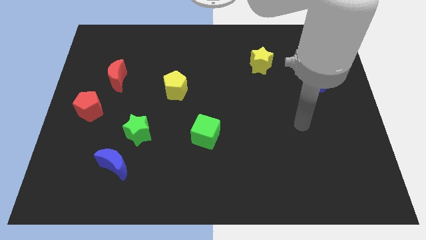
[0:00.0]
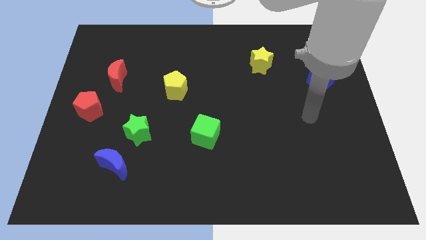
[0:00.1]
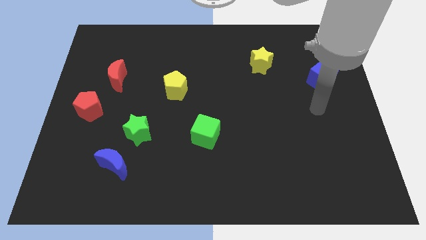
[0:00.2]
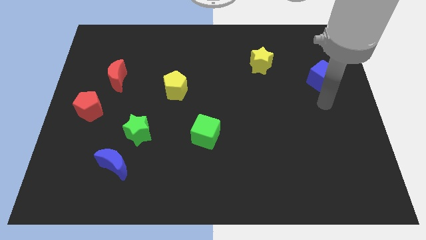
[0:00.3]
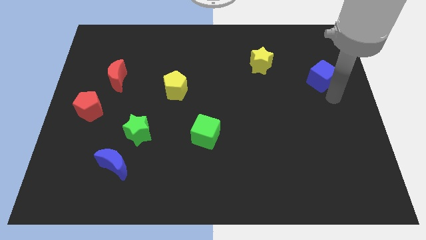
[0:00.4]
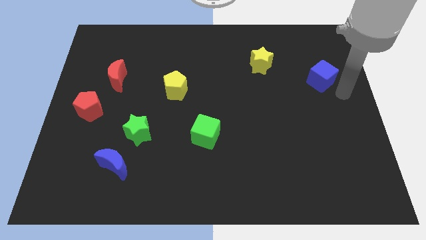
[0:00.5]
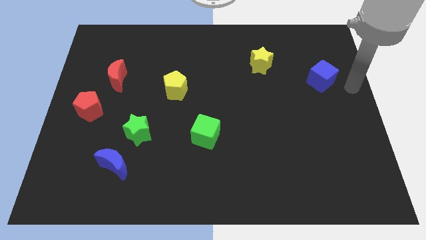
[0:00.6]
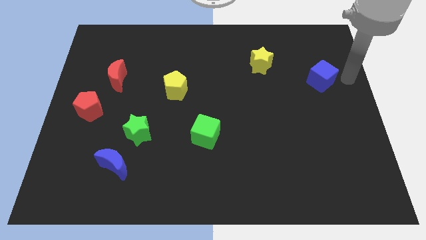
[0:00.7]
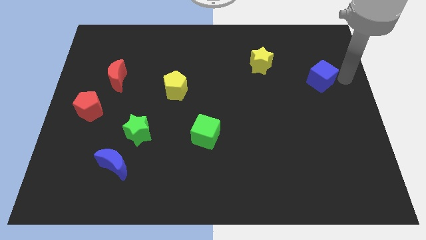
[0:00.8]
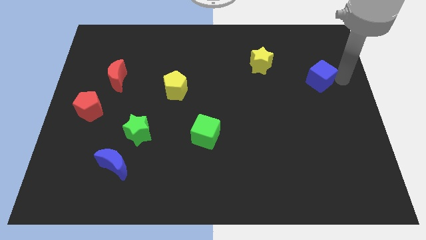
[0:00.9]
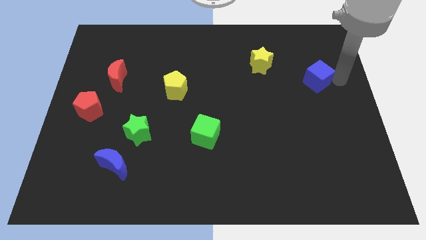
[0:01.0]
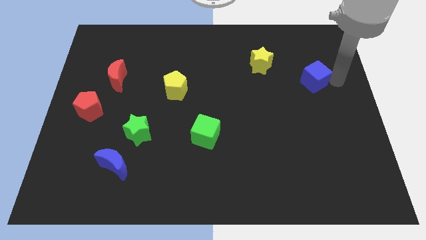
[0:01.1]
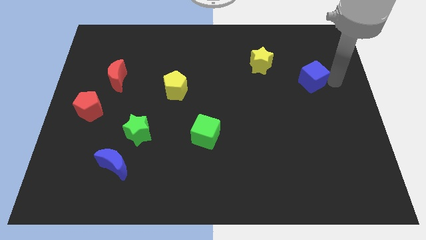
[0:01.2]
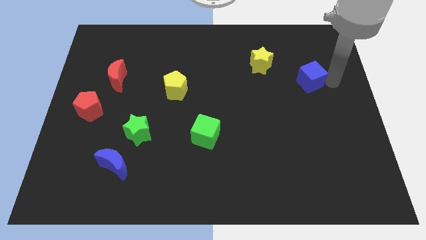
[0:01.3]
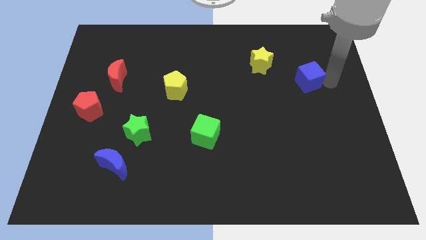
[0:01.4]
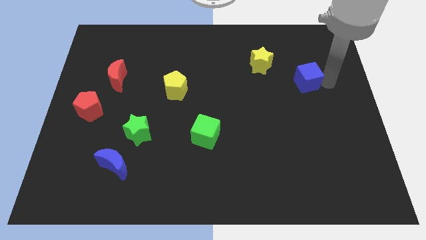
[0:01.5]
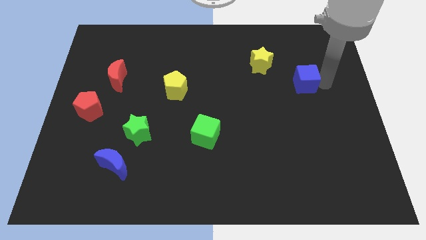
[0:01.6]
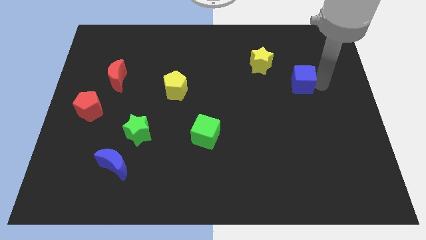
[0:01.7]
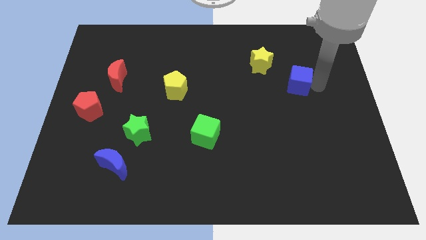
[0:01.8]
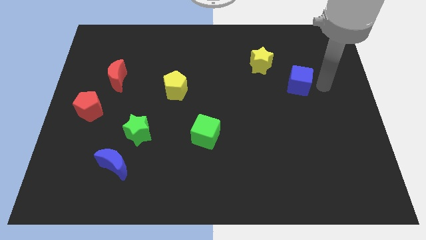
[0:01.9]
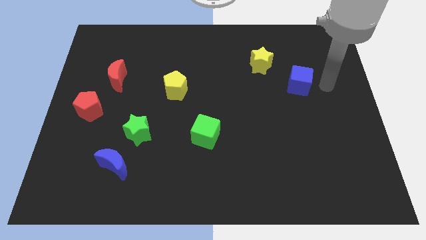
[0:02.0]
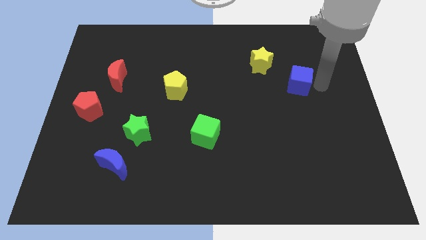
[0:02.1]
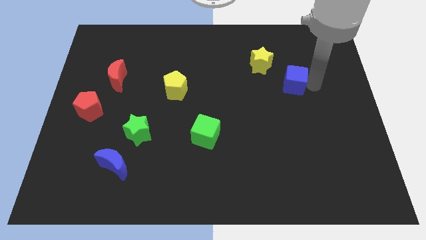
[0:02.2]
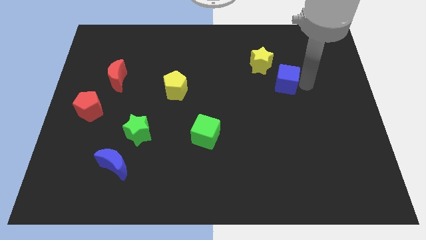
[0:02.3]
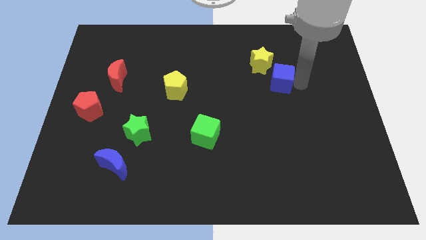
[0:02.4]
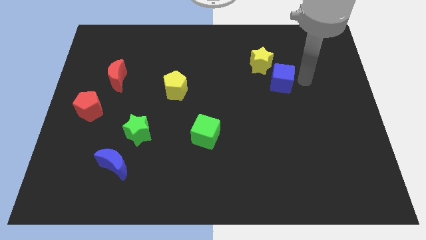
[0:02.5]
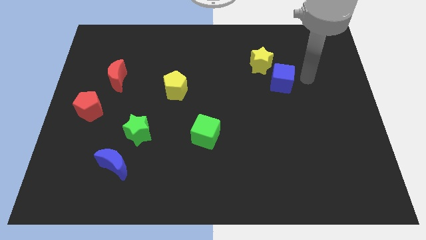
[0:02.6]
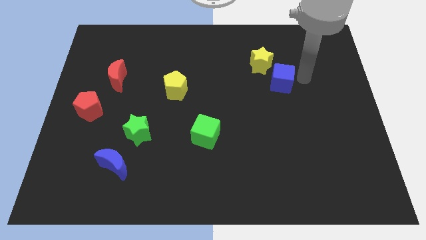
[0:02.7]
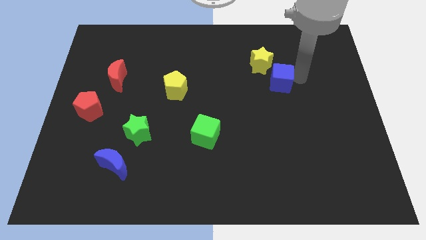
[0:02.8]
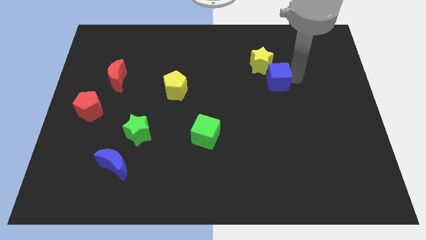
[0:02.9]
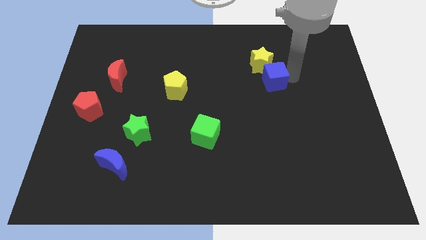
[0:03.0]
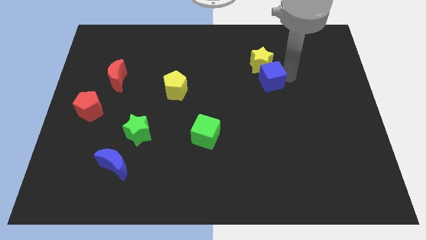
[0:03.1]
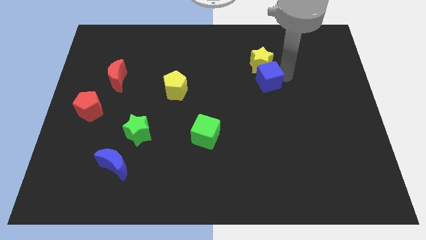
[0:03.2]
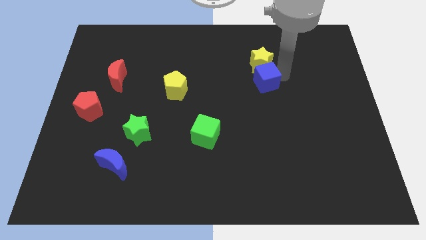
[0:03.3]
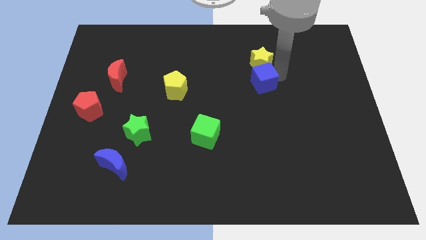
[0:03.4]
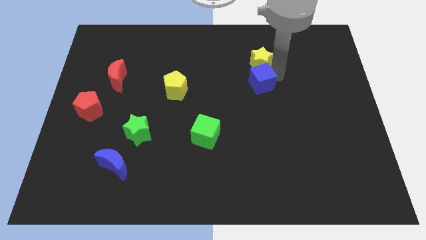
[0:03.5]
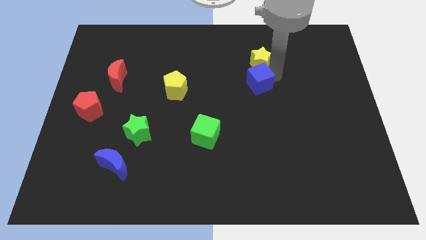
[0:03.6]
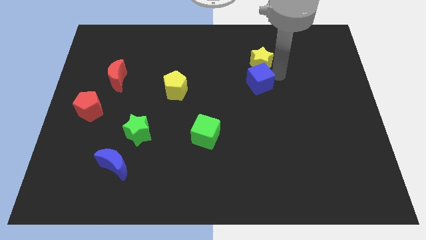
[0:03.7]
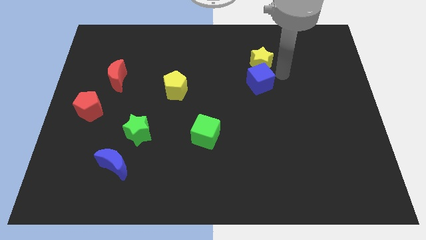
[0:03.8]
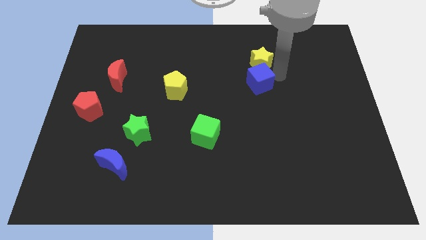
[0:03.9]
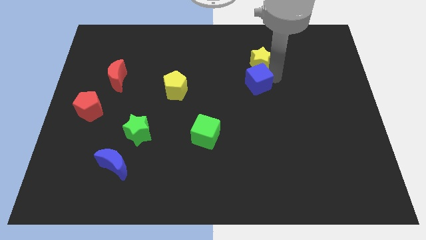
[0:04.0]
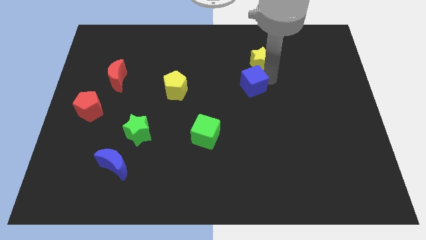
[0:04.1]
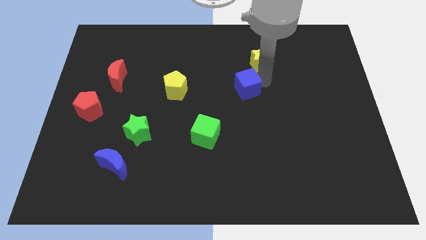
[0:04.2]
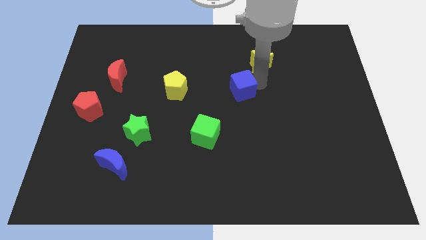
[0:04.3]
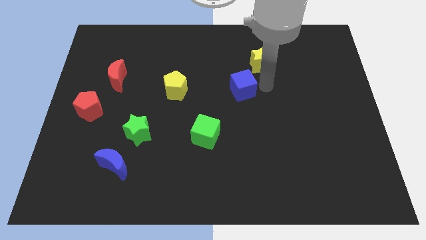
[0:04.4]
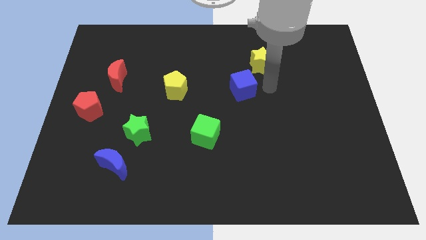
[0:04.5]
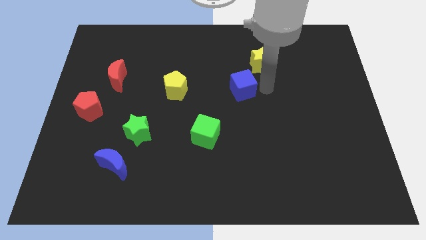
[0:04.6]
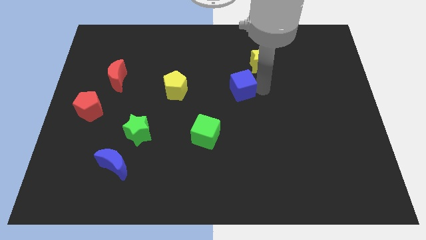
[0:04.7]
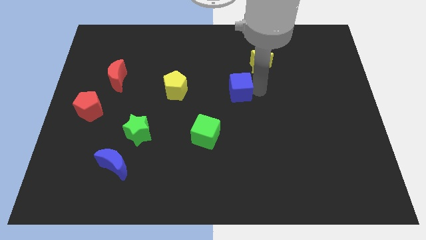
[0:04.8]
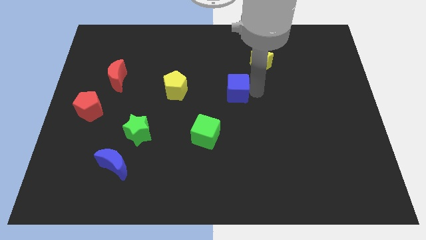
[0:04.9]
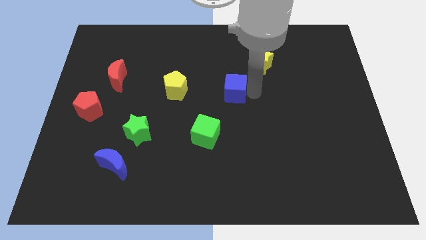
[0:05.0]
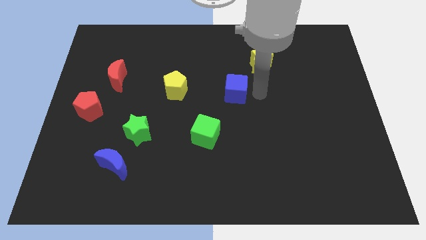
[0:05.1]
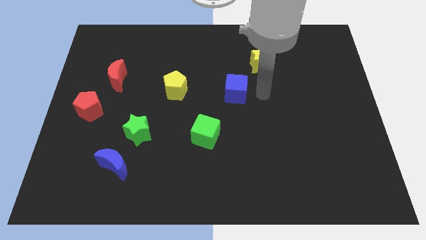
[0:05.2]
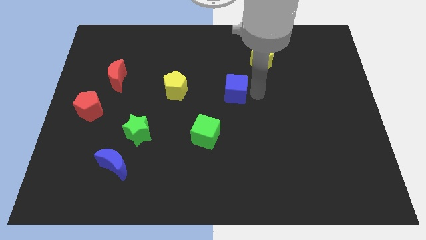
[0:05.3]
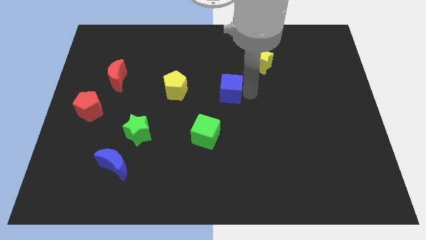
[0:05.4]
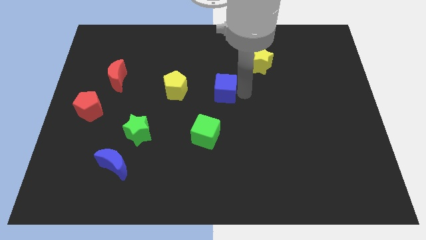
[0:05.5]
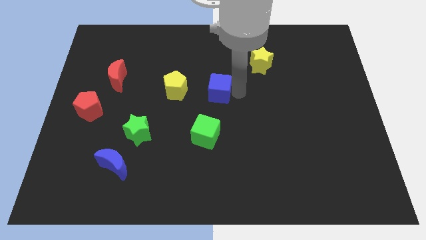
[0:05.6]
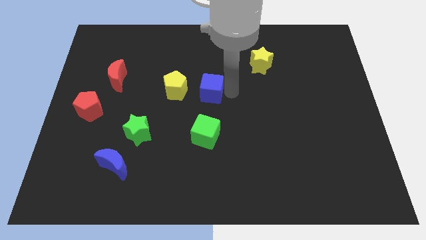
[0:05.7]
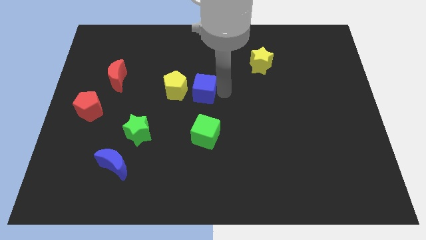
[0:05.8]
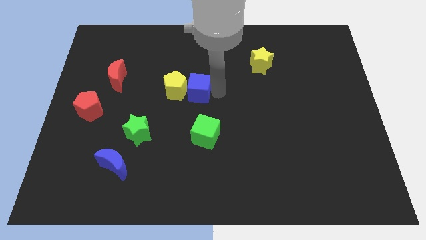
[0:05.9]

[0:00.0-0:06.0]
slide the blue cube to the yellow pentagon

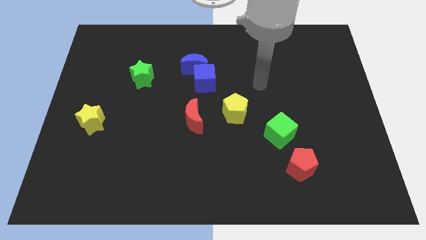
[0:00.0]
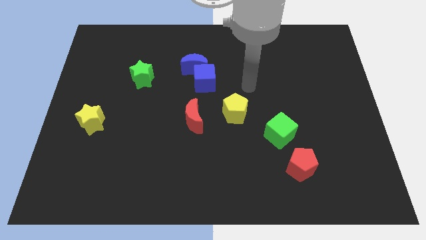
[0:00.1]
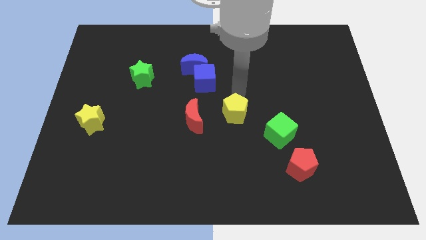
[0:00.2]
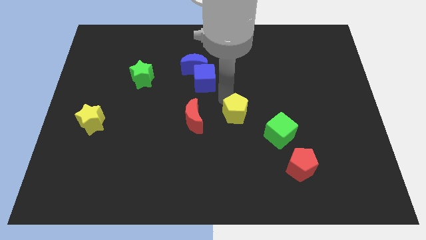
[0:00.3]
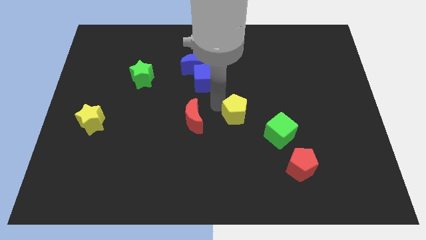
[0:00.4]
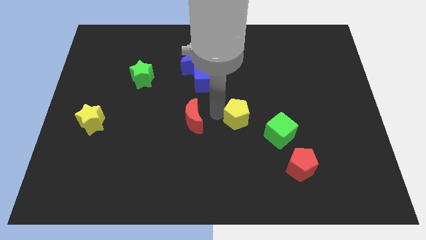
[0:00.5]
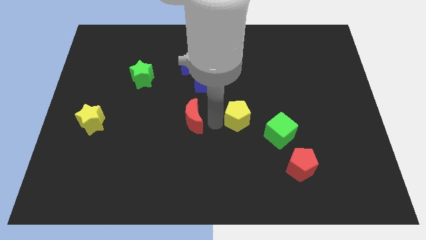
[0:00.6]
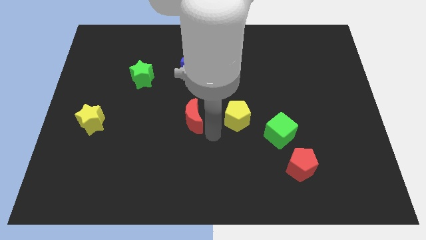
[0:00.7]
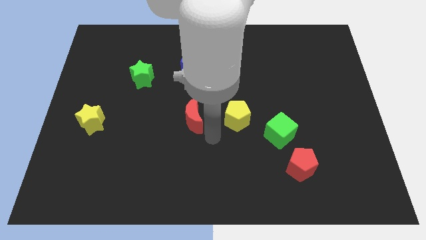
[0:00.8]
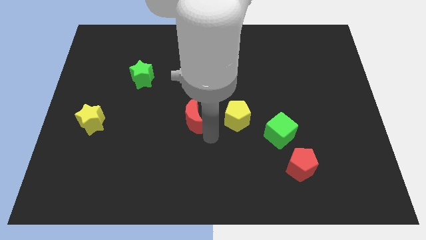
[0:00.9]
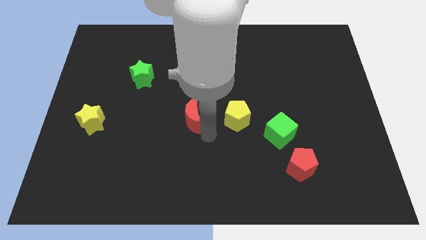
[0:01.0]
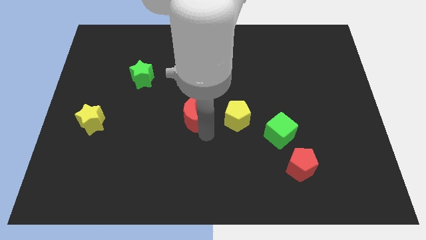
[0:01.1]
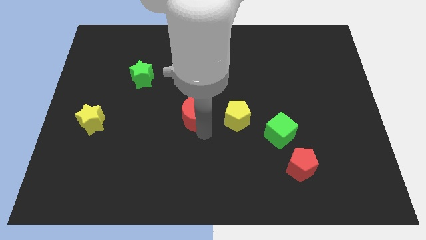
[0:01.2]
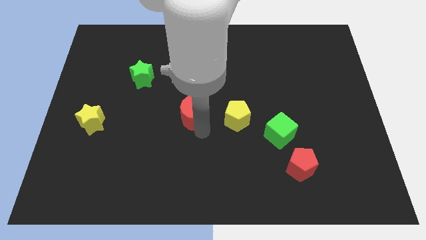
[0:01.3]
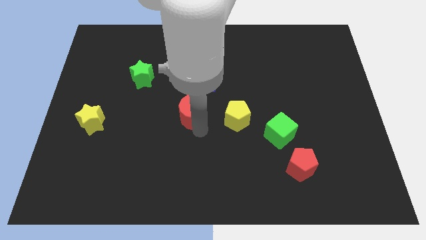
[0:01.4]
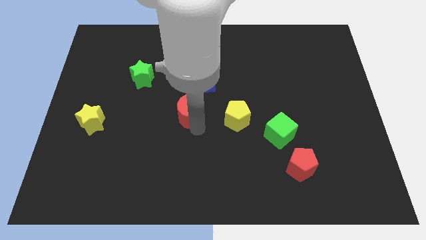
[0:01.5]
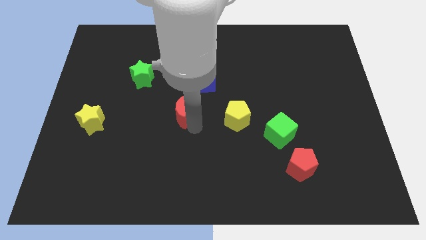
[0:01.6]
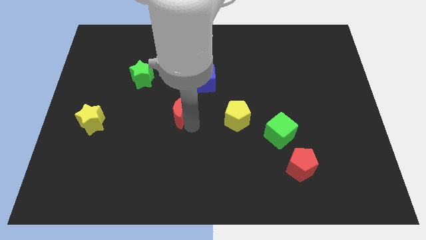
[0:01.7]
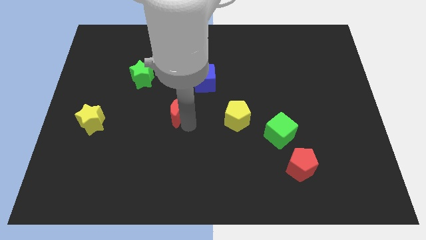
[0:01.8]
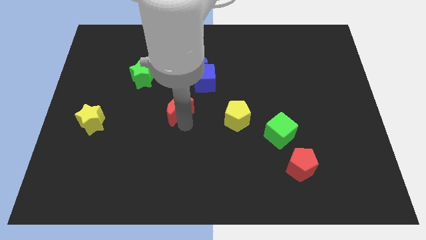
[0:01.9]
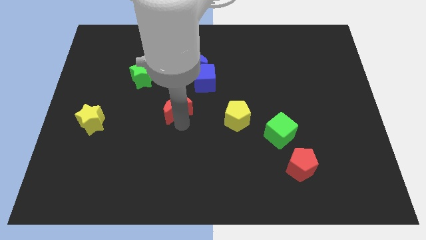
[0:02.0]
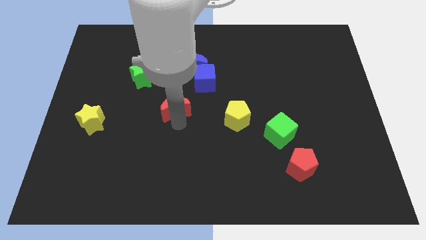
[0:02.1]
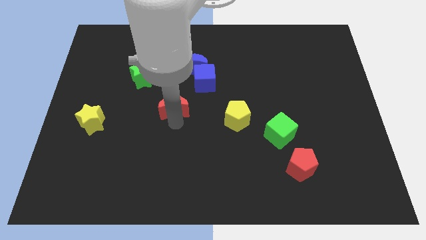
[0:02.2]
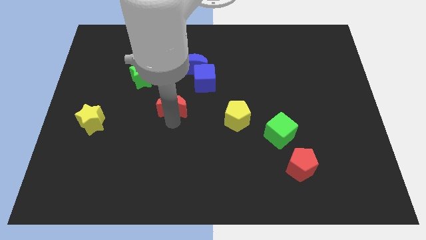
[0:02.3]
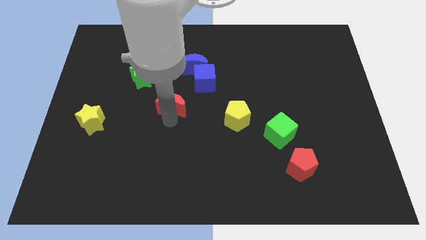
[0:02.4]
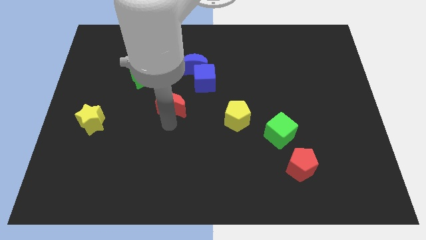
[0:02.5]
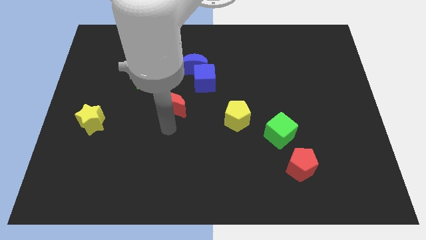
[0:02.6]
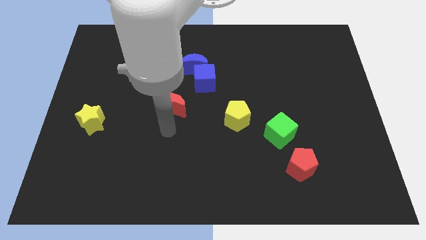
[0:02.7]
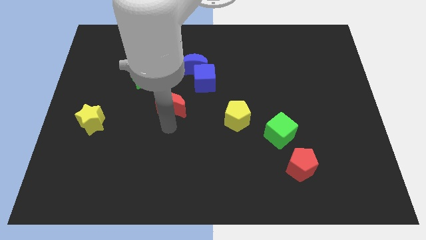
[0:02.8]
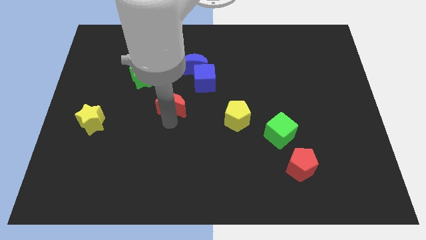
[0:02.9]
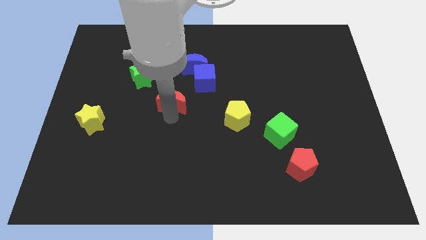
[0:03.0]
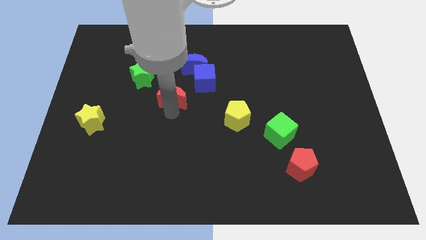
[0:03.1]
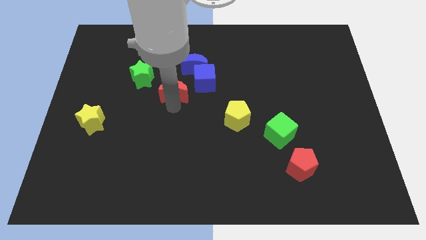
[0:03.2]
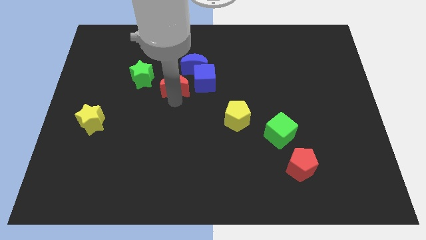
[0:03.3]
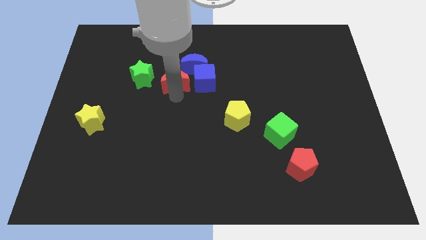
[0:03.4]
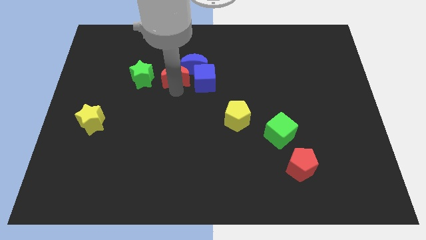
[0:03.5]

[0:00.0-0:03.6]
push the red moon next to the blue moon
